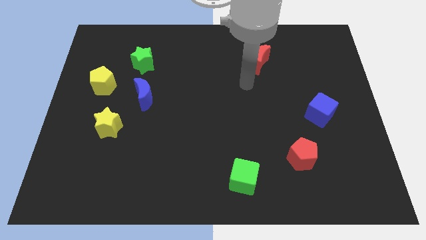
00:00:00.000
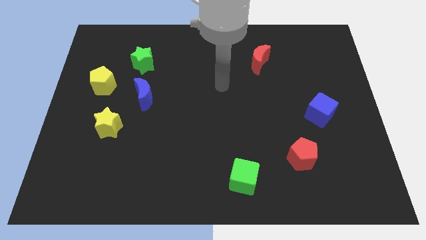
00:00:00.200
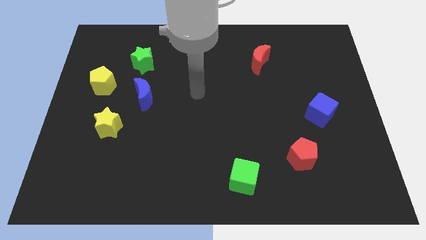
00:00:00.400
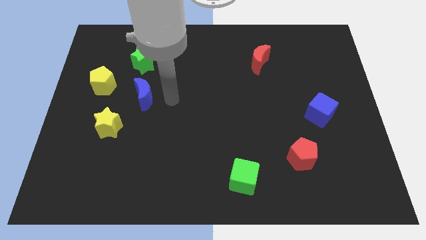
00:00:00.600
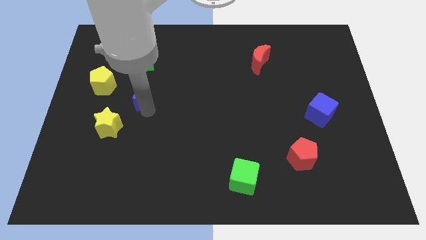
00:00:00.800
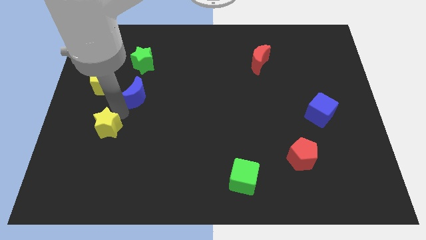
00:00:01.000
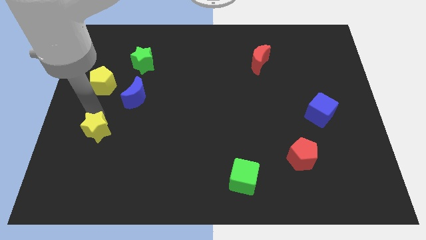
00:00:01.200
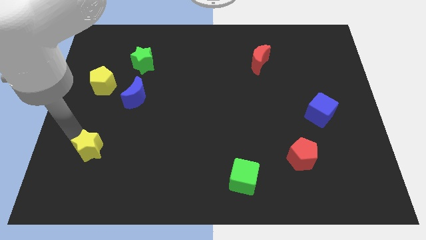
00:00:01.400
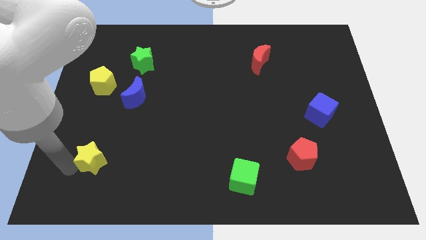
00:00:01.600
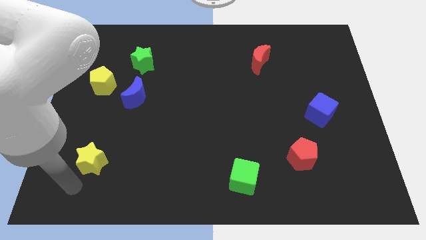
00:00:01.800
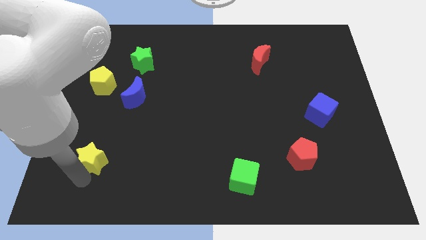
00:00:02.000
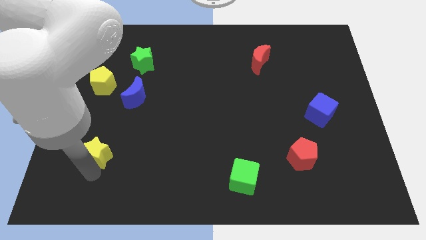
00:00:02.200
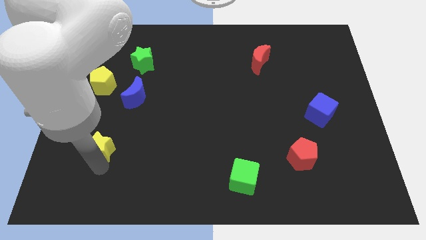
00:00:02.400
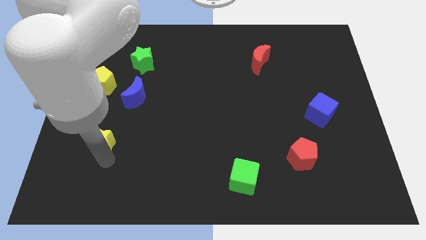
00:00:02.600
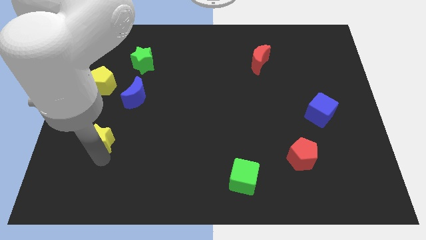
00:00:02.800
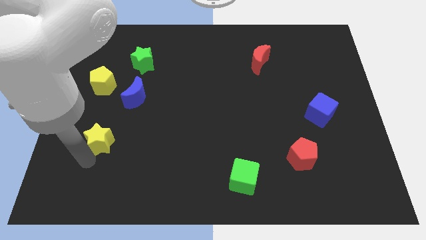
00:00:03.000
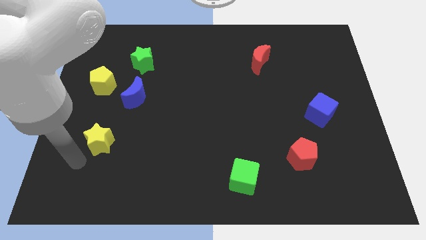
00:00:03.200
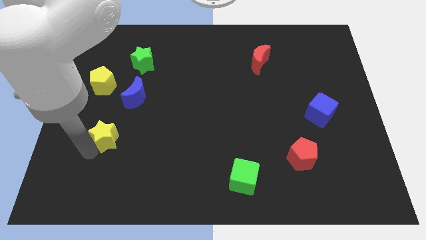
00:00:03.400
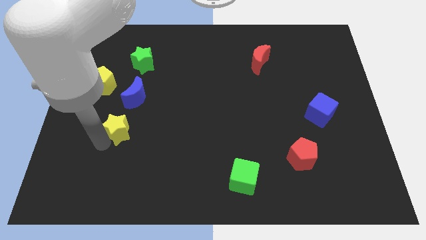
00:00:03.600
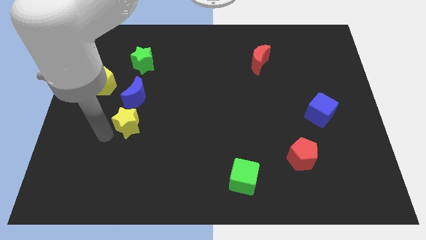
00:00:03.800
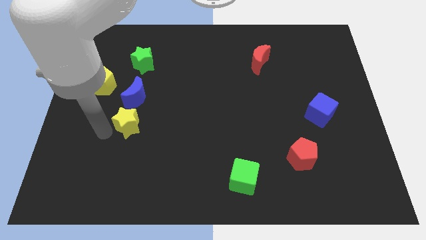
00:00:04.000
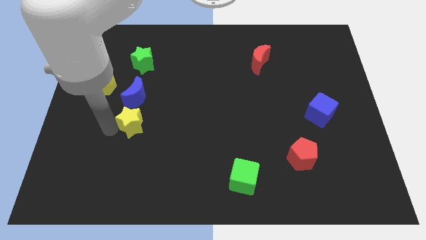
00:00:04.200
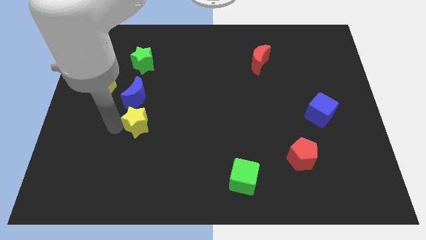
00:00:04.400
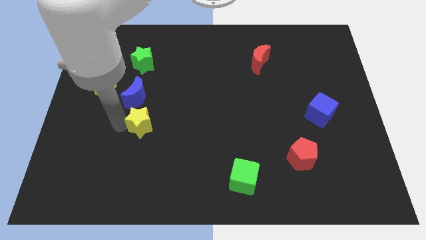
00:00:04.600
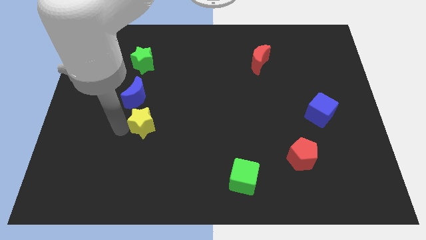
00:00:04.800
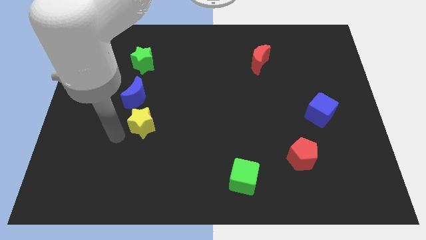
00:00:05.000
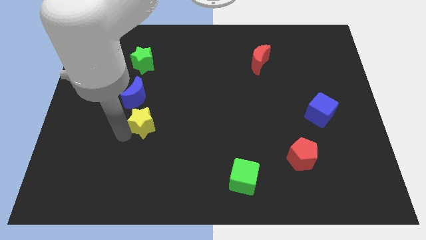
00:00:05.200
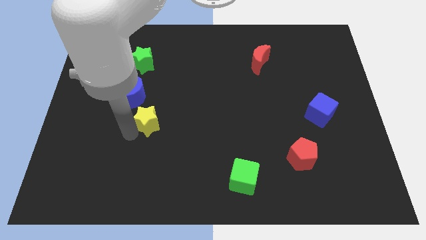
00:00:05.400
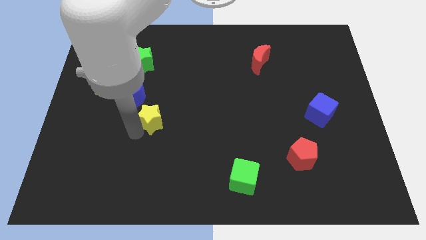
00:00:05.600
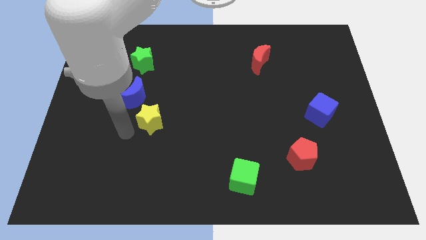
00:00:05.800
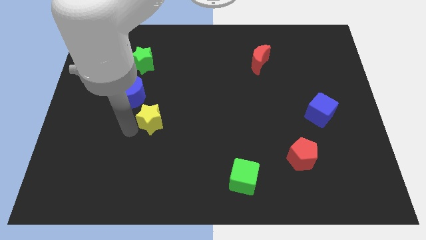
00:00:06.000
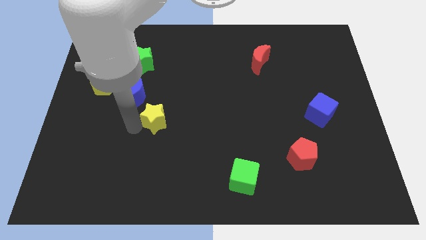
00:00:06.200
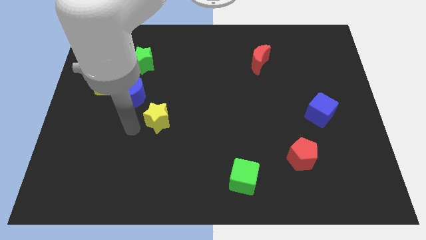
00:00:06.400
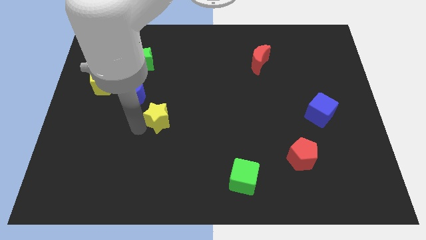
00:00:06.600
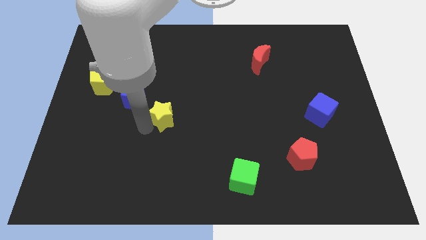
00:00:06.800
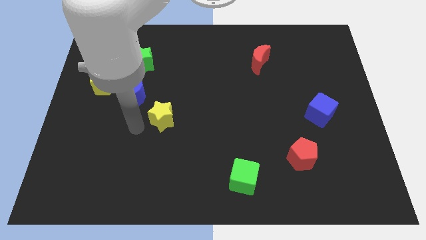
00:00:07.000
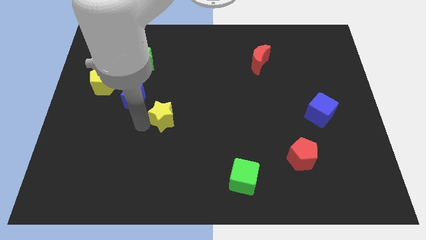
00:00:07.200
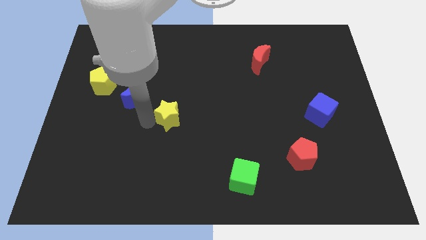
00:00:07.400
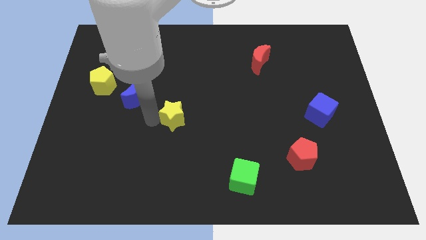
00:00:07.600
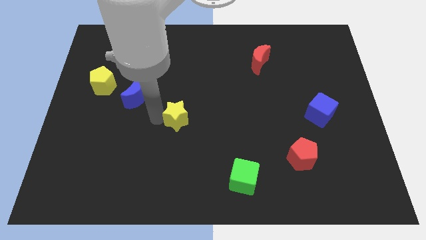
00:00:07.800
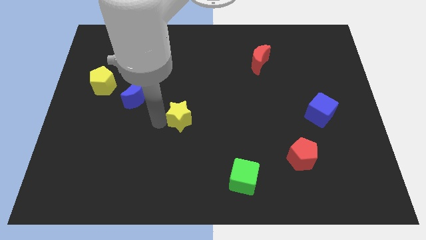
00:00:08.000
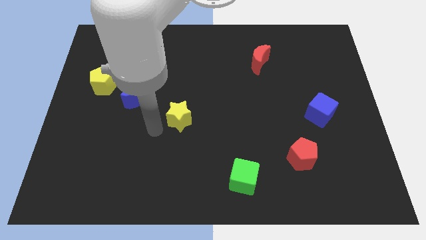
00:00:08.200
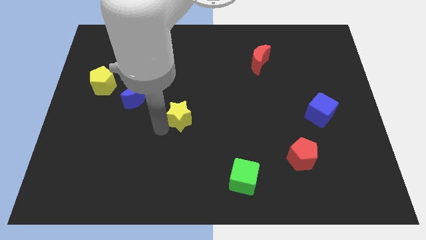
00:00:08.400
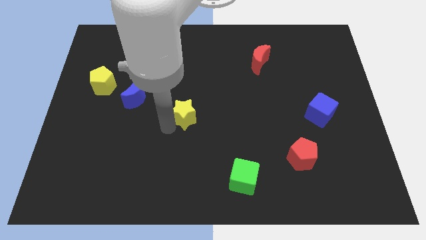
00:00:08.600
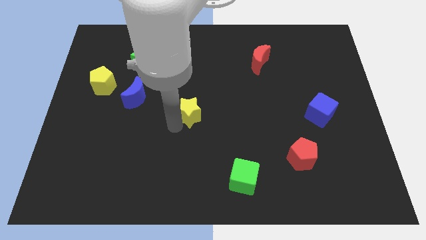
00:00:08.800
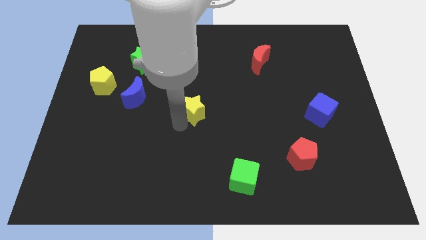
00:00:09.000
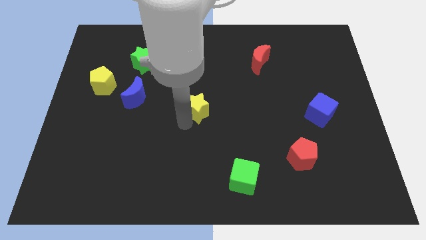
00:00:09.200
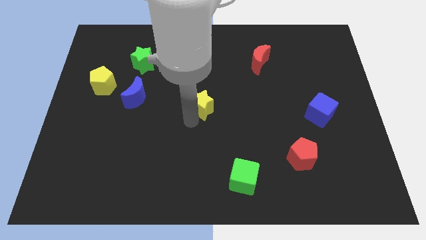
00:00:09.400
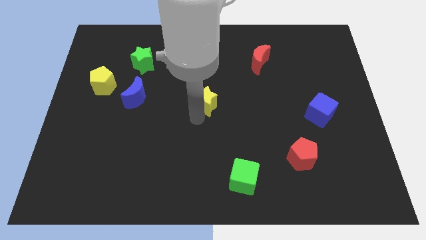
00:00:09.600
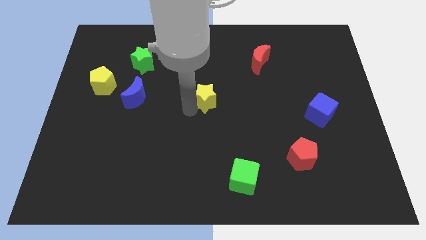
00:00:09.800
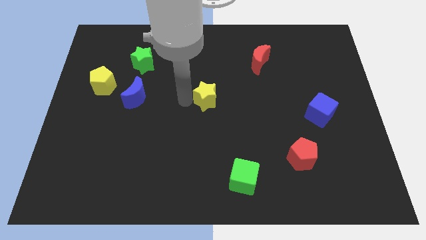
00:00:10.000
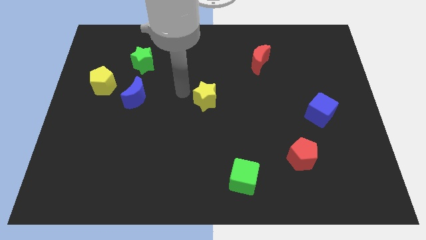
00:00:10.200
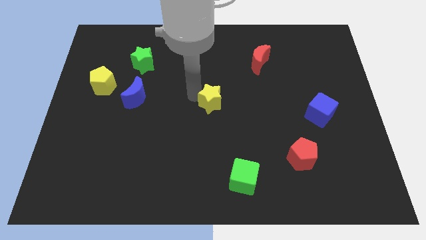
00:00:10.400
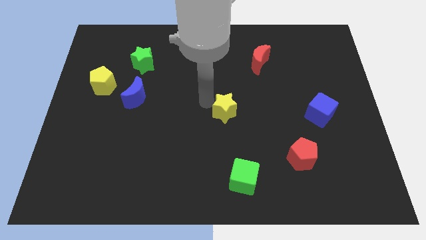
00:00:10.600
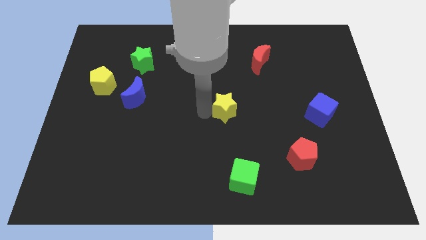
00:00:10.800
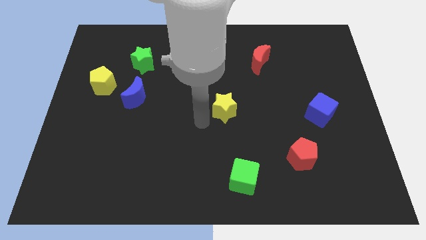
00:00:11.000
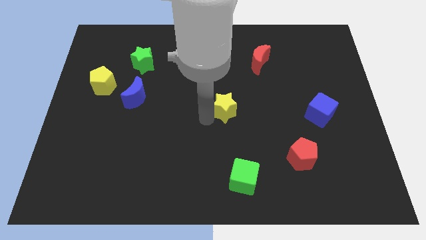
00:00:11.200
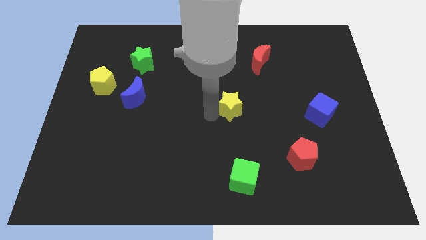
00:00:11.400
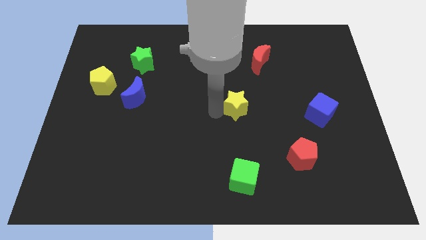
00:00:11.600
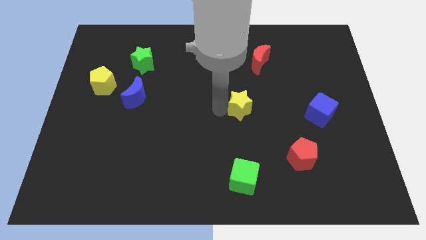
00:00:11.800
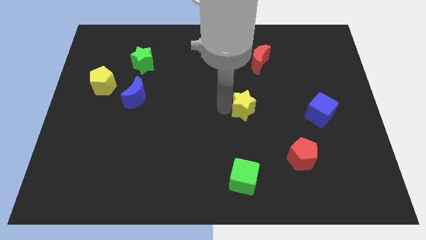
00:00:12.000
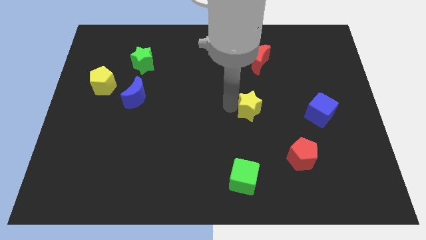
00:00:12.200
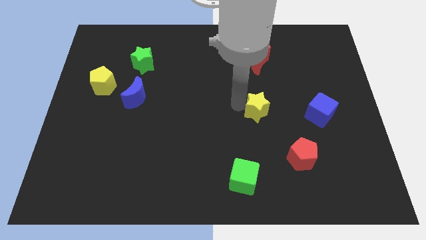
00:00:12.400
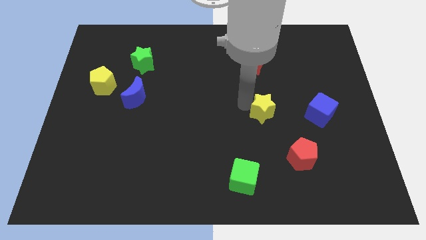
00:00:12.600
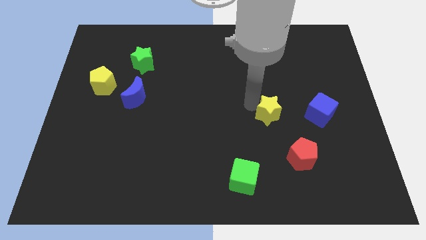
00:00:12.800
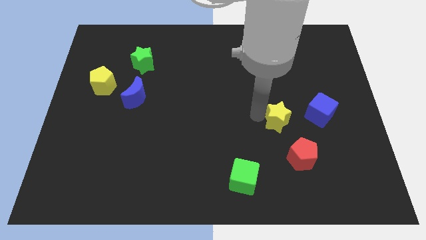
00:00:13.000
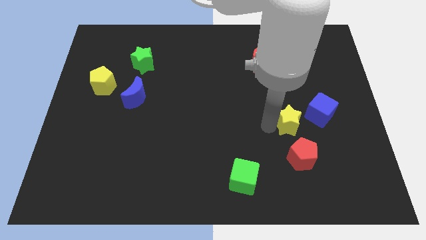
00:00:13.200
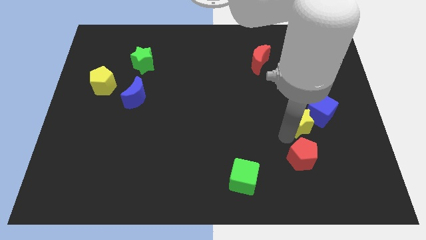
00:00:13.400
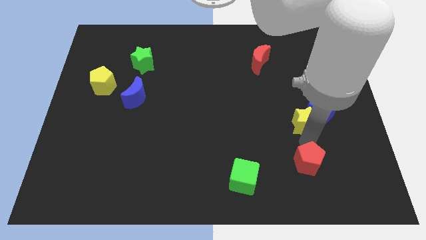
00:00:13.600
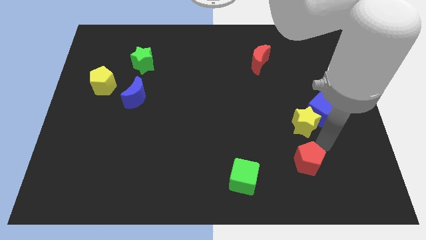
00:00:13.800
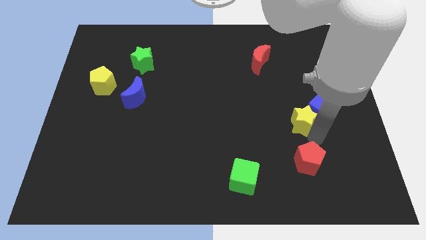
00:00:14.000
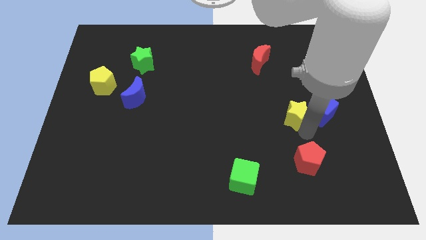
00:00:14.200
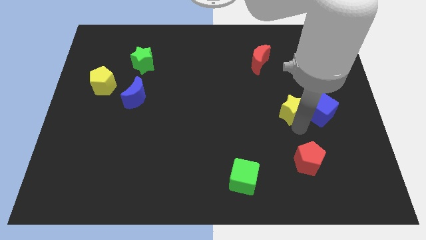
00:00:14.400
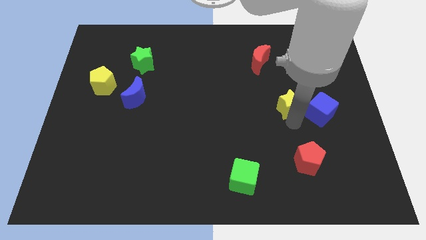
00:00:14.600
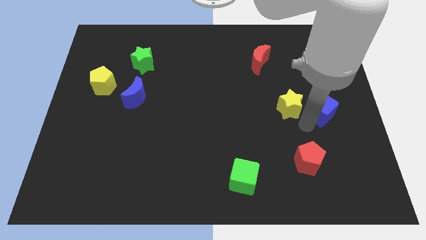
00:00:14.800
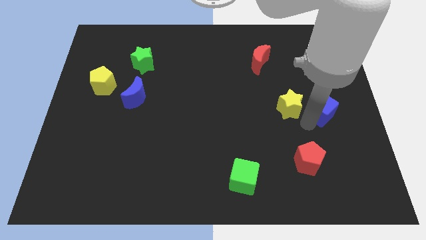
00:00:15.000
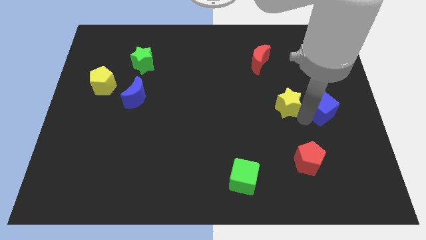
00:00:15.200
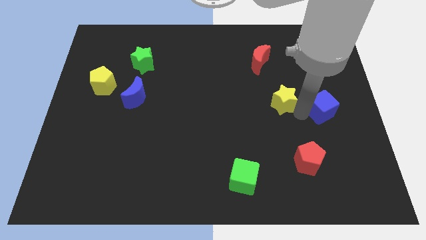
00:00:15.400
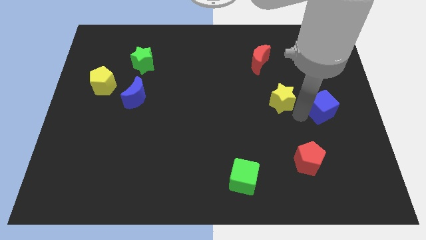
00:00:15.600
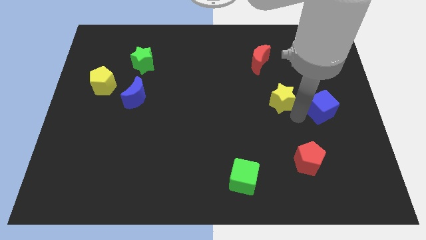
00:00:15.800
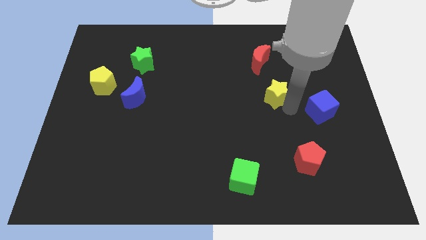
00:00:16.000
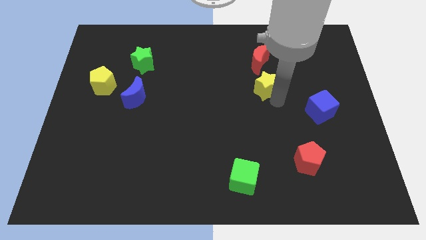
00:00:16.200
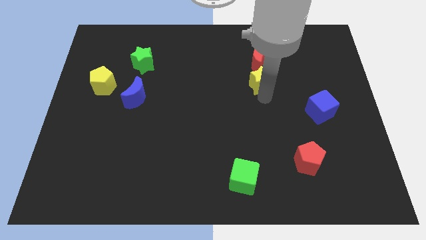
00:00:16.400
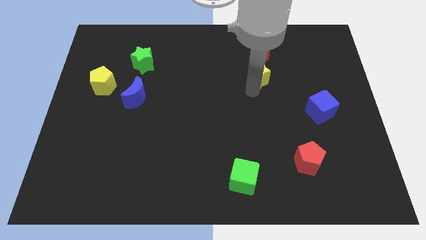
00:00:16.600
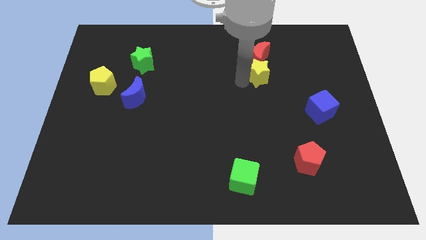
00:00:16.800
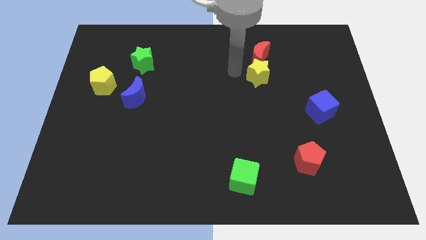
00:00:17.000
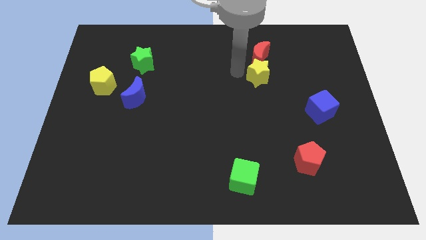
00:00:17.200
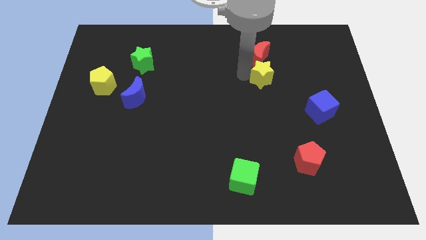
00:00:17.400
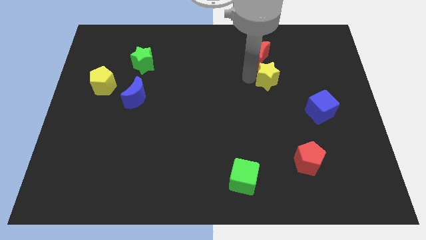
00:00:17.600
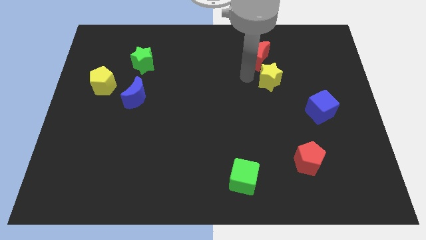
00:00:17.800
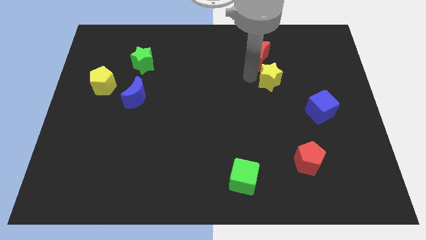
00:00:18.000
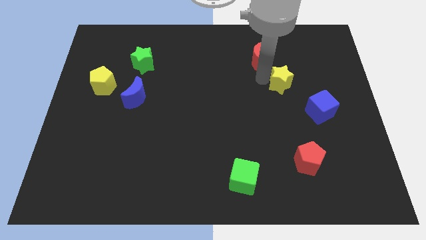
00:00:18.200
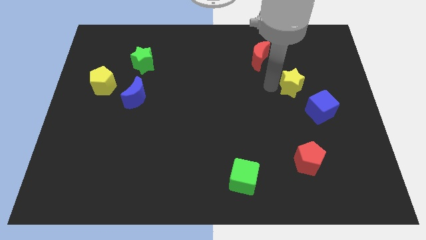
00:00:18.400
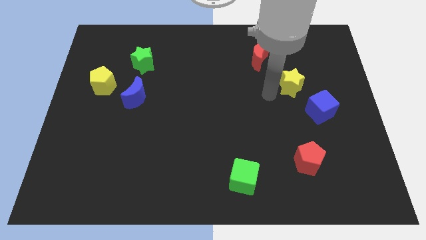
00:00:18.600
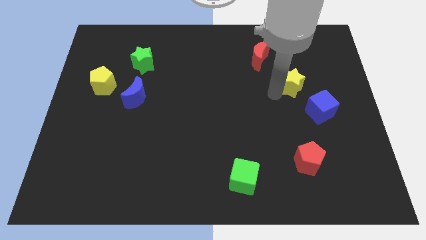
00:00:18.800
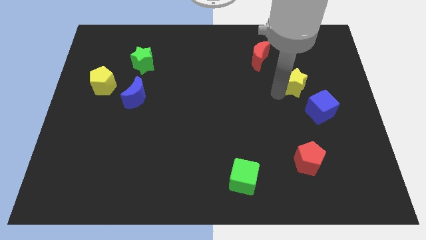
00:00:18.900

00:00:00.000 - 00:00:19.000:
put the yellow star to the top of the blue cube
